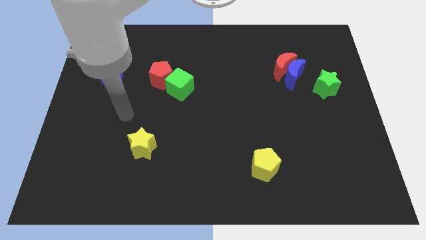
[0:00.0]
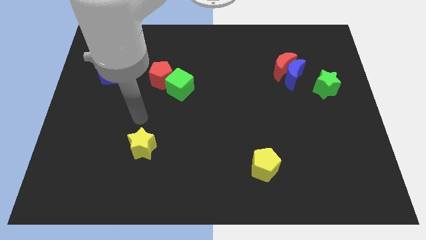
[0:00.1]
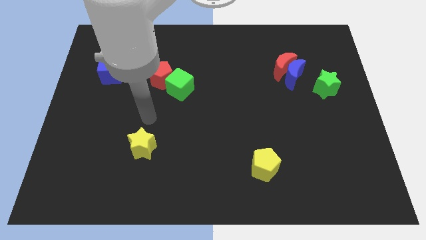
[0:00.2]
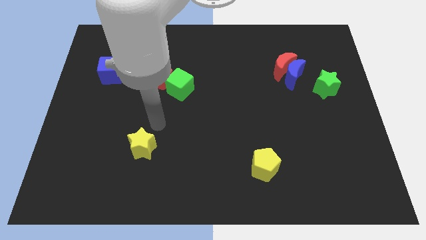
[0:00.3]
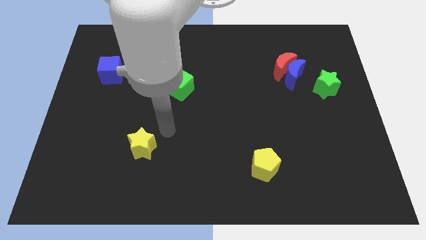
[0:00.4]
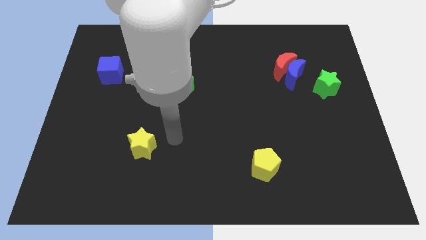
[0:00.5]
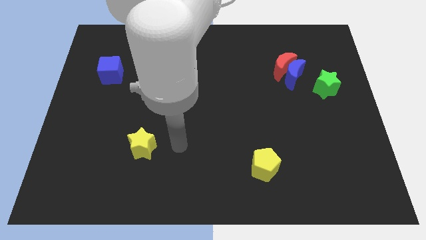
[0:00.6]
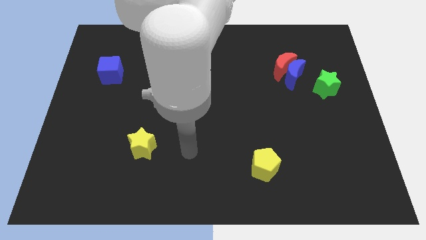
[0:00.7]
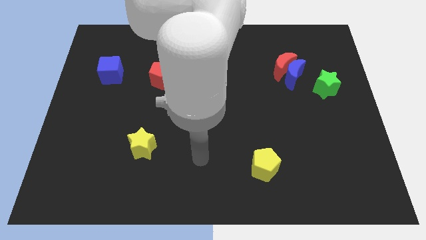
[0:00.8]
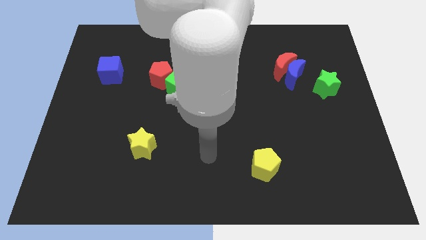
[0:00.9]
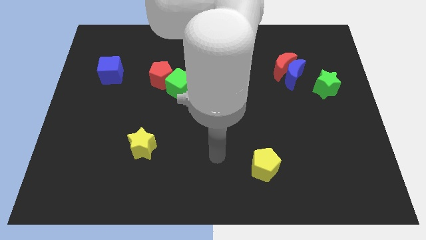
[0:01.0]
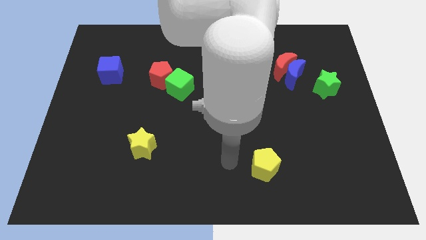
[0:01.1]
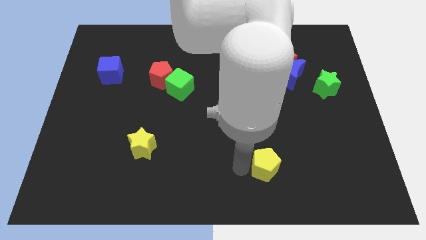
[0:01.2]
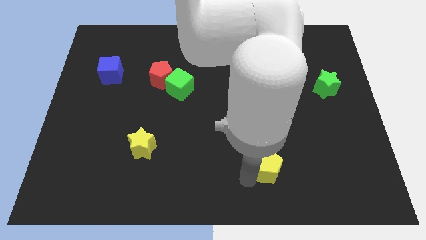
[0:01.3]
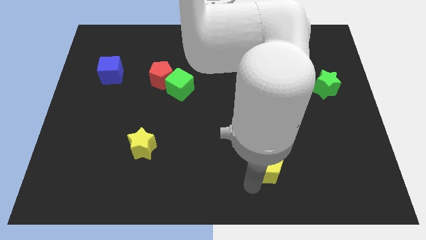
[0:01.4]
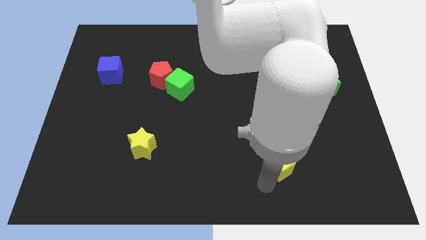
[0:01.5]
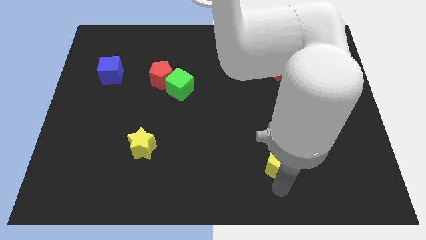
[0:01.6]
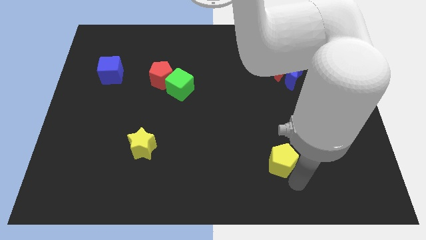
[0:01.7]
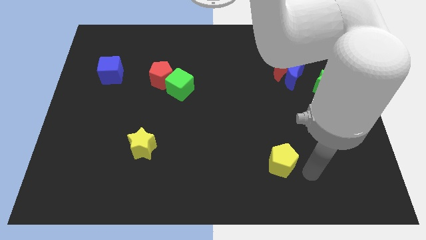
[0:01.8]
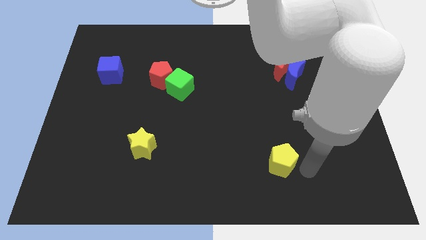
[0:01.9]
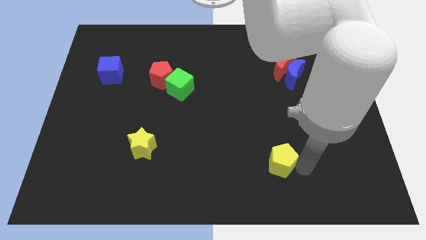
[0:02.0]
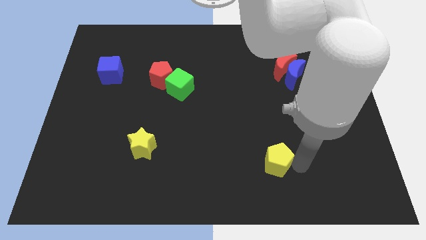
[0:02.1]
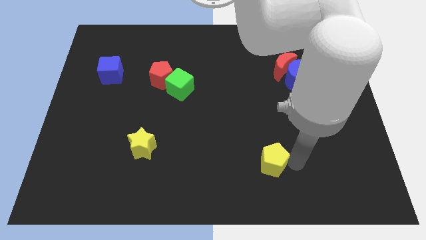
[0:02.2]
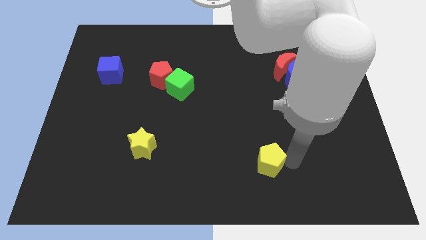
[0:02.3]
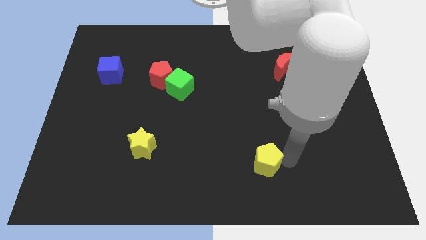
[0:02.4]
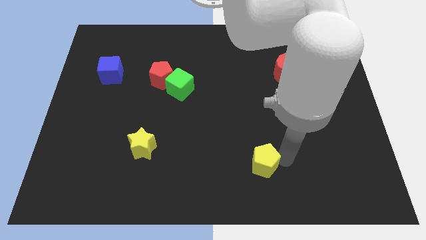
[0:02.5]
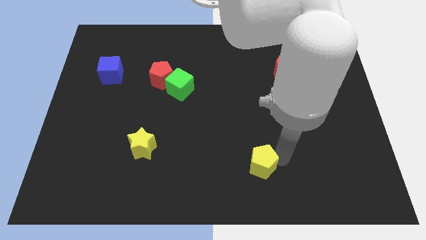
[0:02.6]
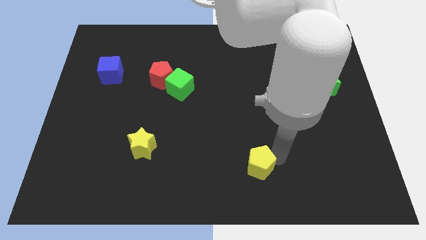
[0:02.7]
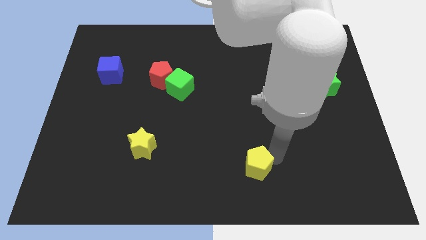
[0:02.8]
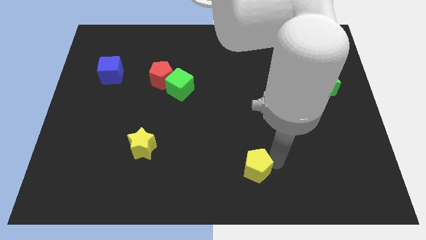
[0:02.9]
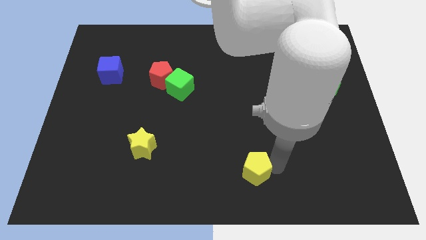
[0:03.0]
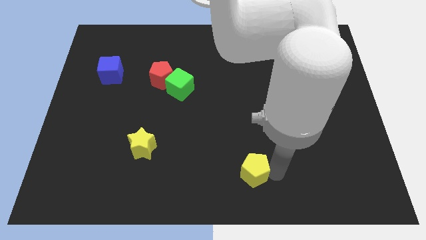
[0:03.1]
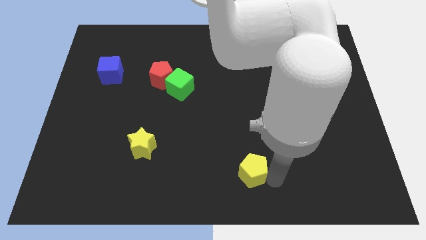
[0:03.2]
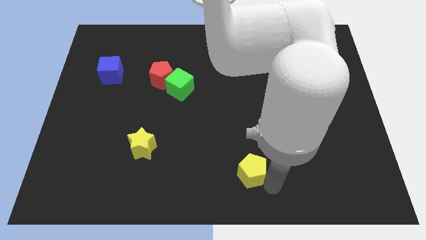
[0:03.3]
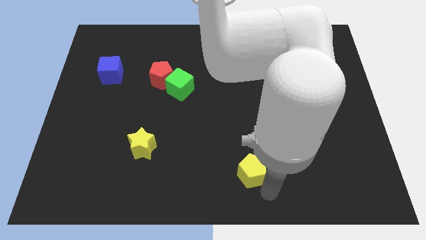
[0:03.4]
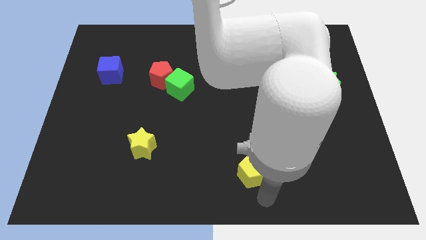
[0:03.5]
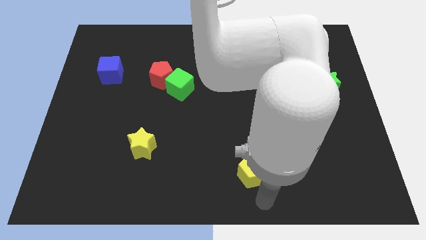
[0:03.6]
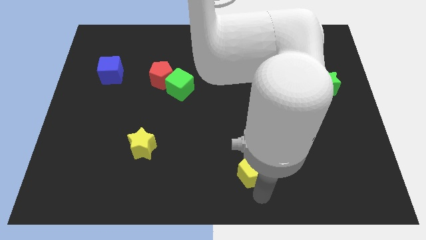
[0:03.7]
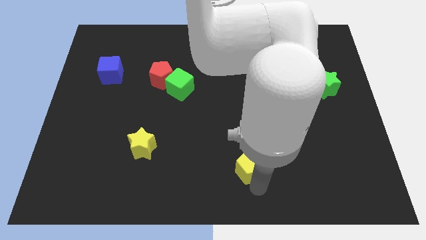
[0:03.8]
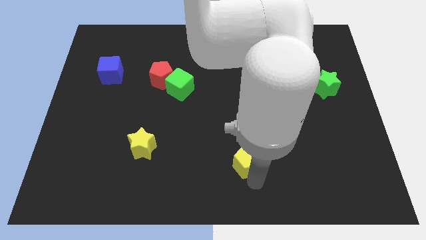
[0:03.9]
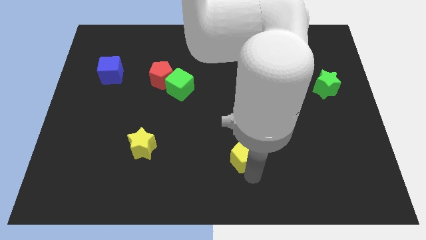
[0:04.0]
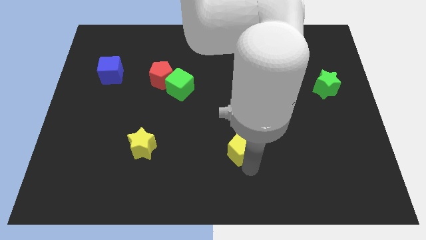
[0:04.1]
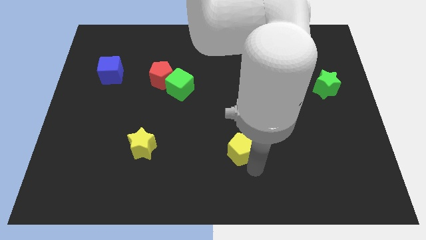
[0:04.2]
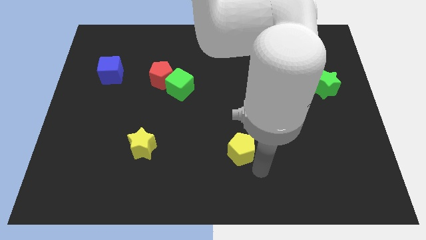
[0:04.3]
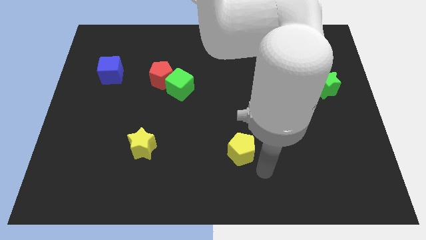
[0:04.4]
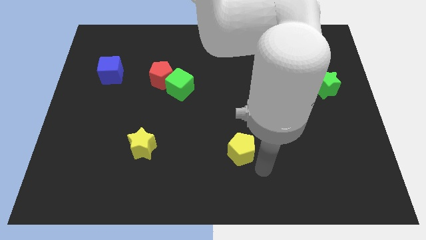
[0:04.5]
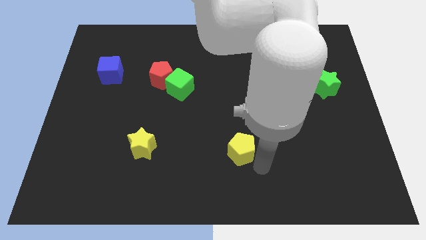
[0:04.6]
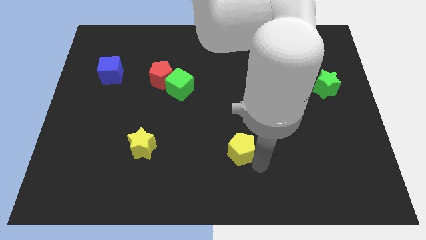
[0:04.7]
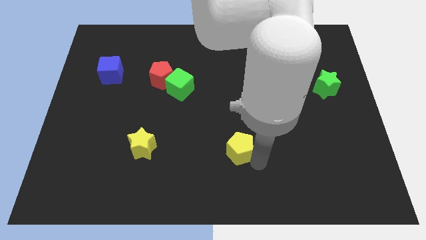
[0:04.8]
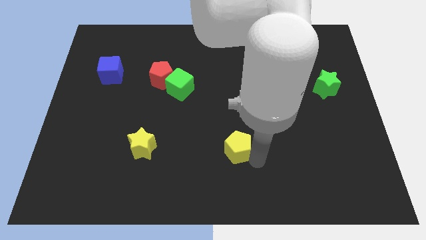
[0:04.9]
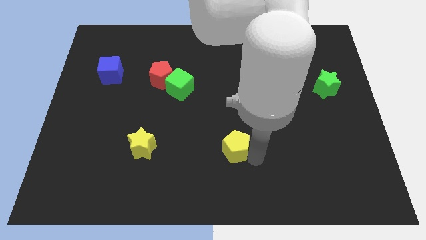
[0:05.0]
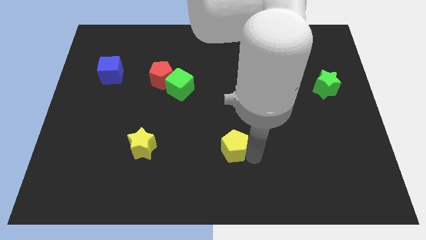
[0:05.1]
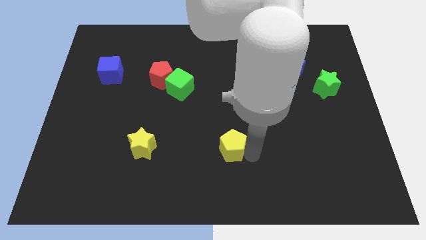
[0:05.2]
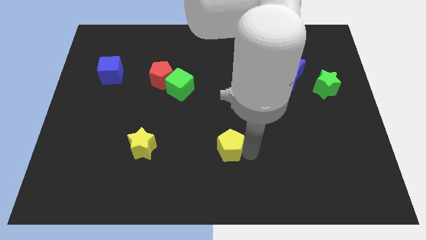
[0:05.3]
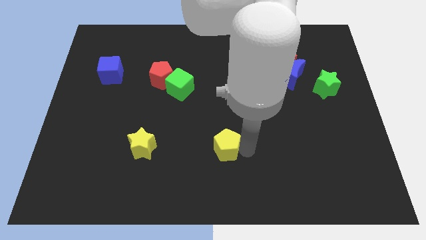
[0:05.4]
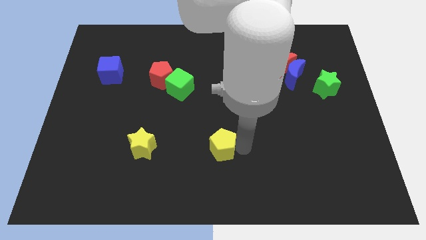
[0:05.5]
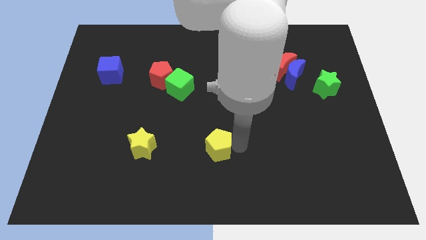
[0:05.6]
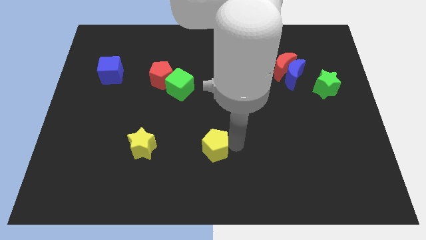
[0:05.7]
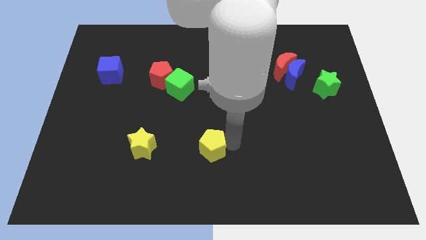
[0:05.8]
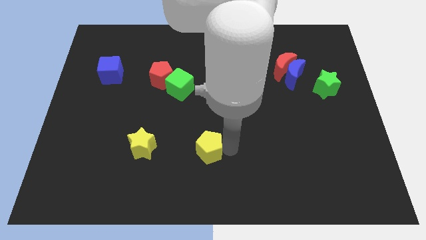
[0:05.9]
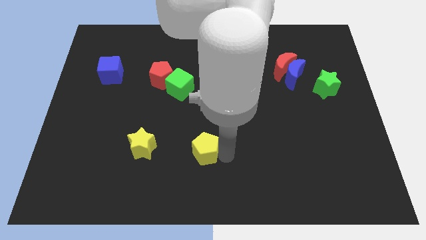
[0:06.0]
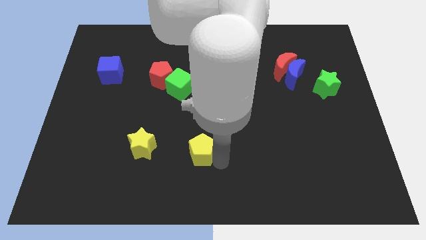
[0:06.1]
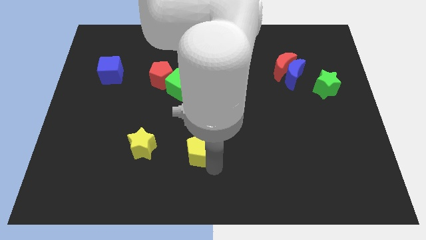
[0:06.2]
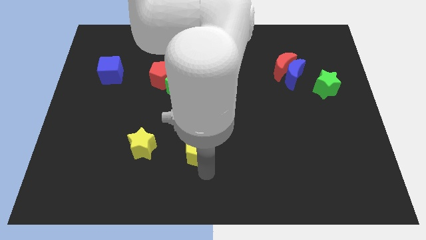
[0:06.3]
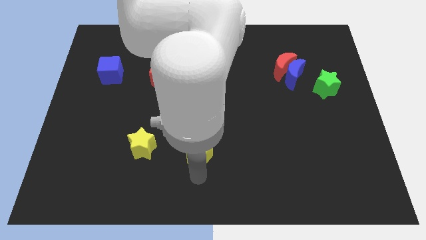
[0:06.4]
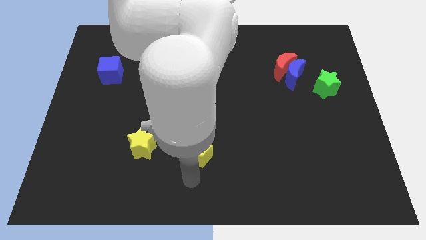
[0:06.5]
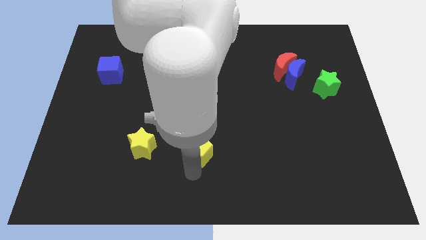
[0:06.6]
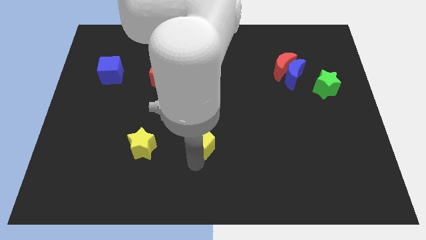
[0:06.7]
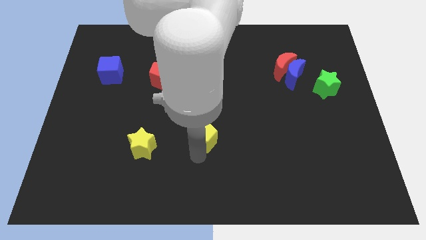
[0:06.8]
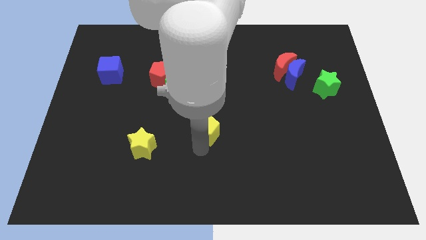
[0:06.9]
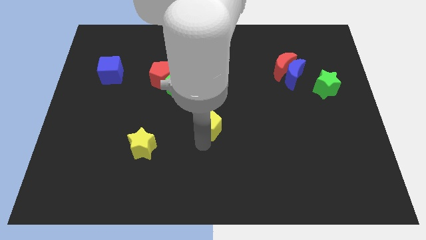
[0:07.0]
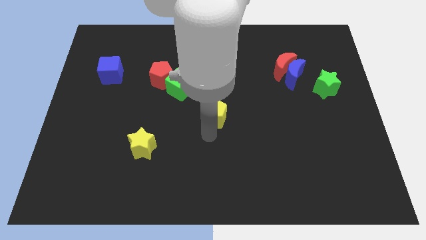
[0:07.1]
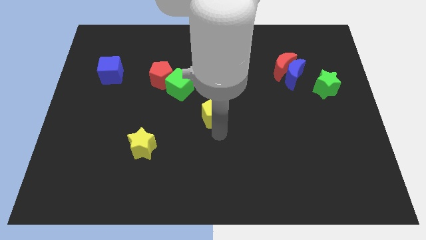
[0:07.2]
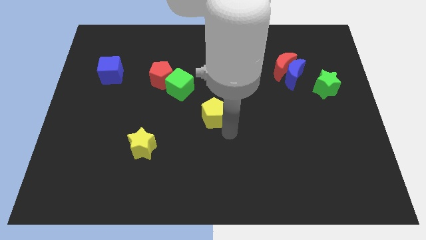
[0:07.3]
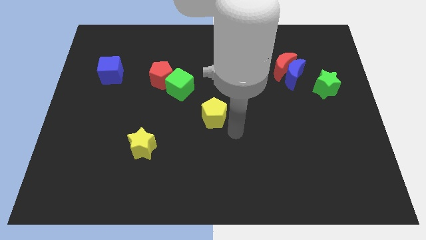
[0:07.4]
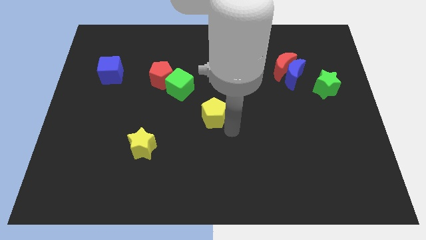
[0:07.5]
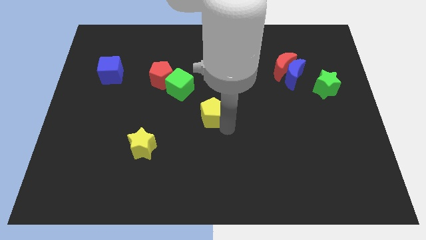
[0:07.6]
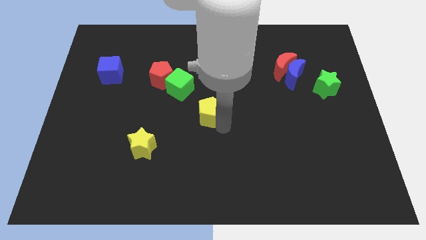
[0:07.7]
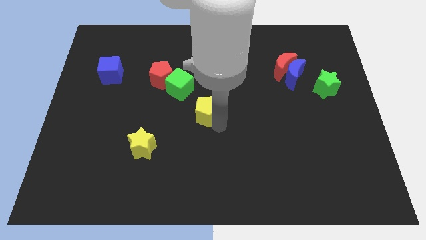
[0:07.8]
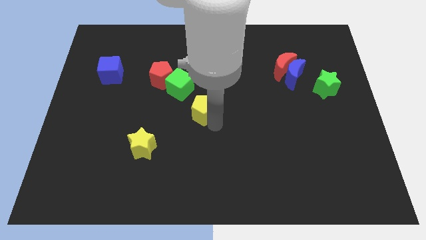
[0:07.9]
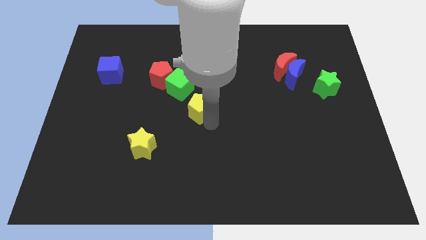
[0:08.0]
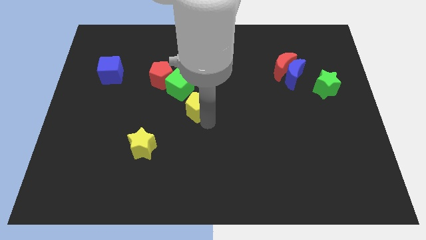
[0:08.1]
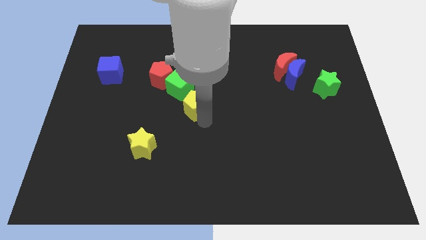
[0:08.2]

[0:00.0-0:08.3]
put the yellow pentagon diagonally down and to the right of the red pentagon
